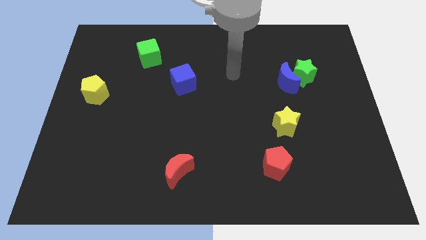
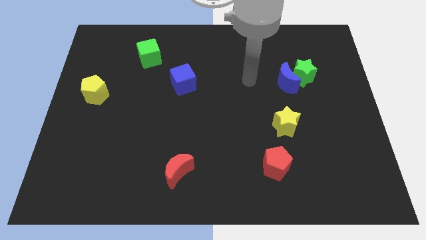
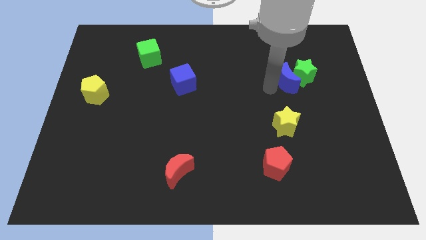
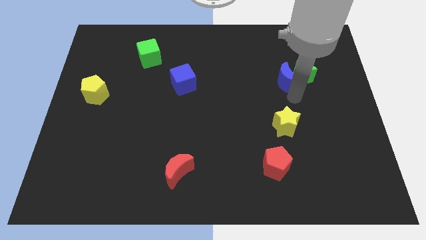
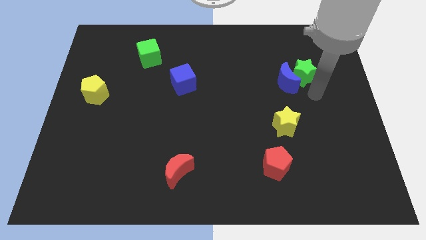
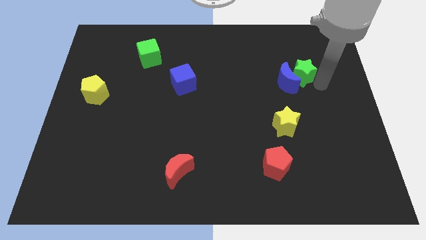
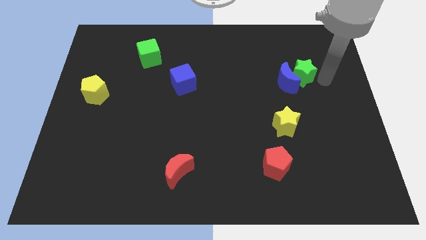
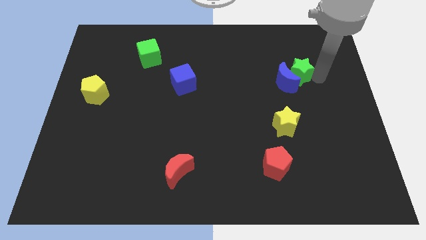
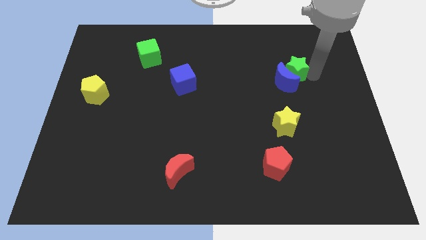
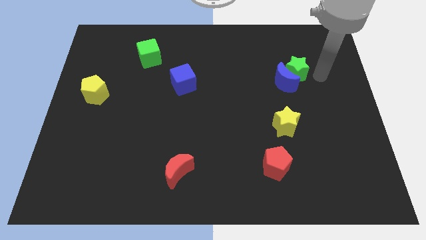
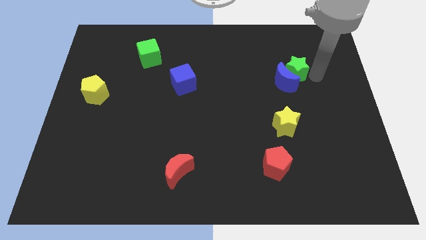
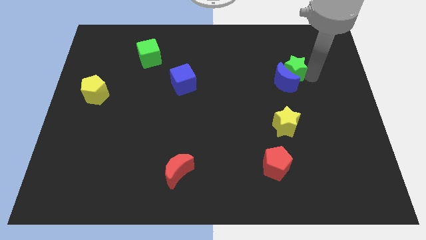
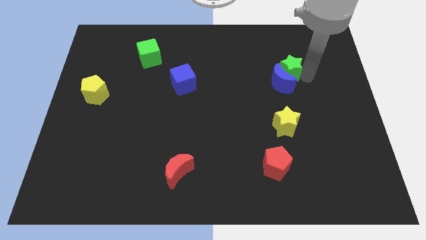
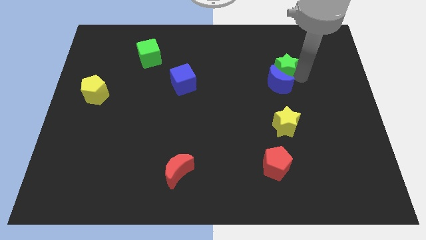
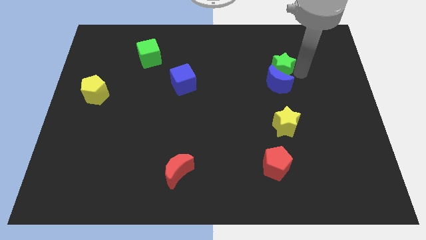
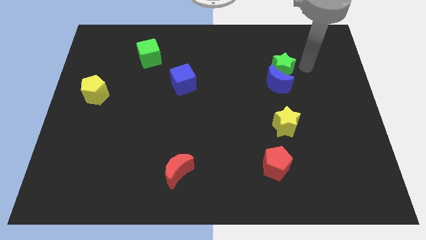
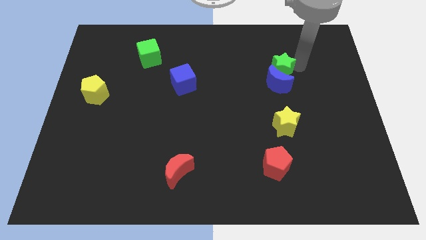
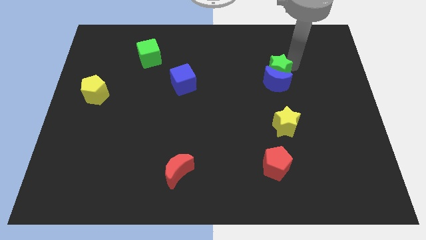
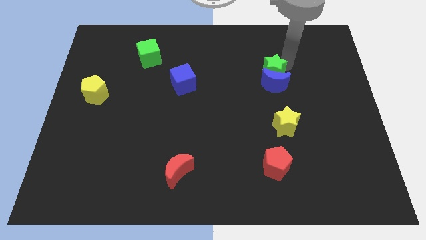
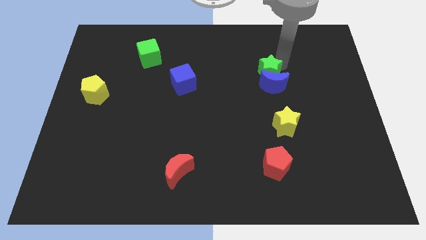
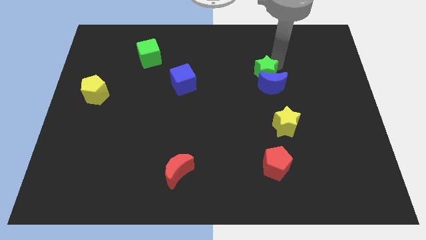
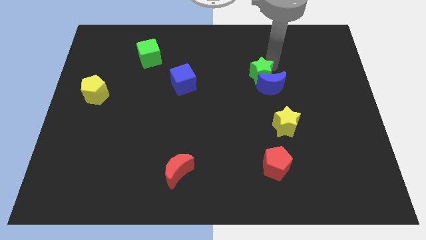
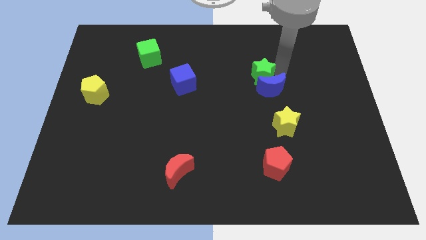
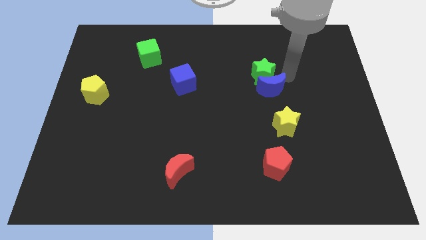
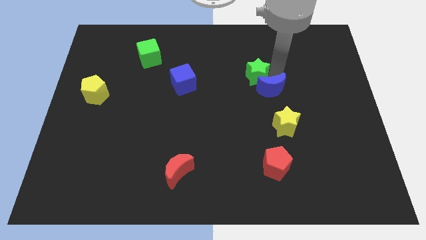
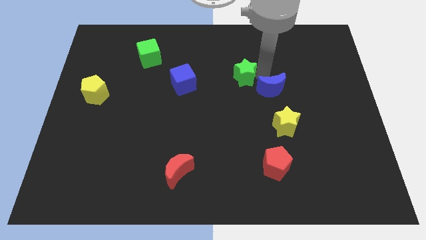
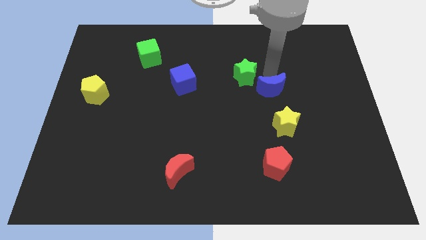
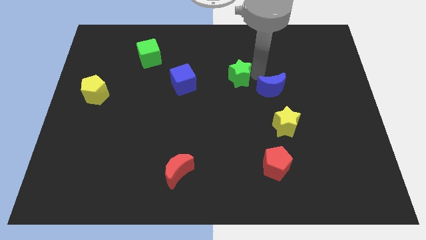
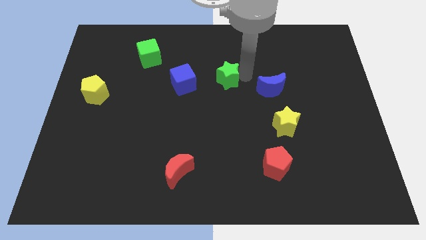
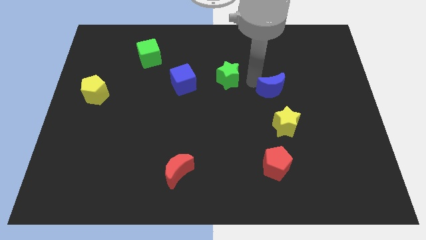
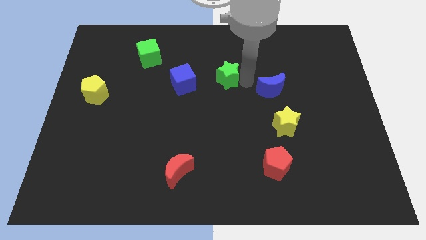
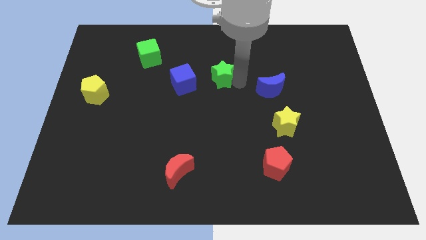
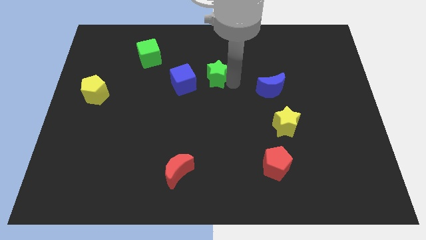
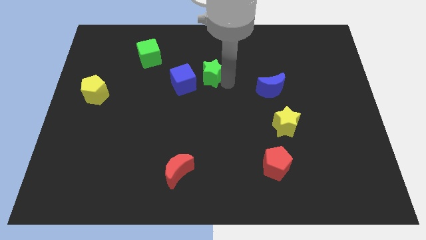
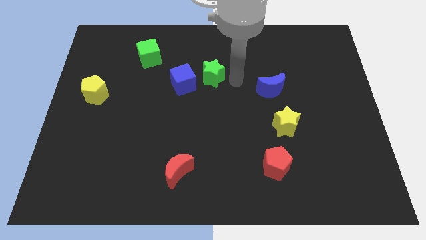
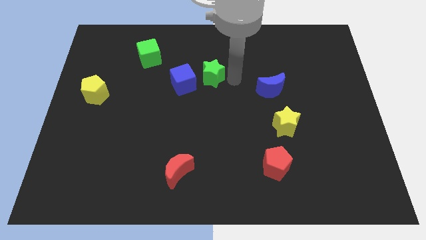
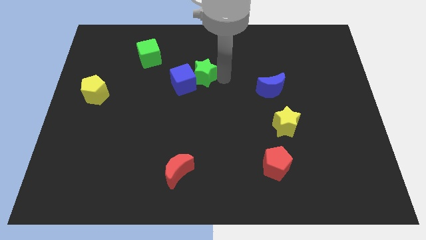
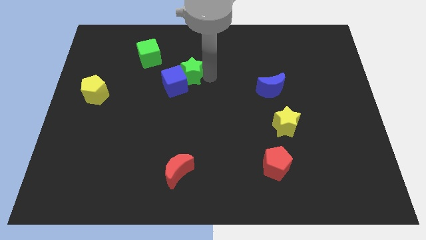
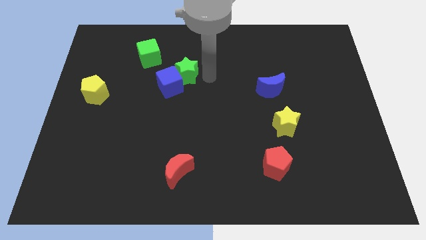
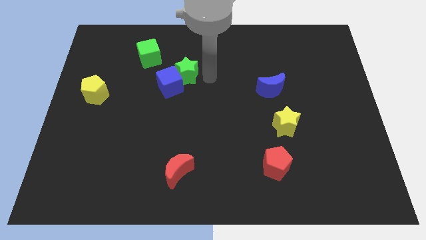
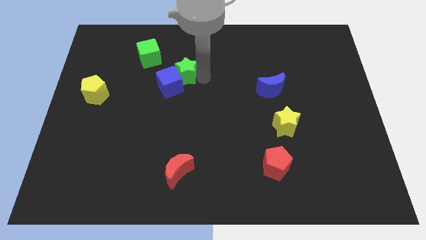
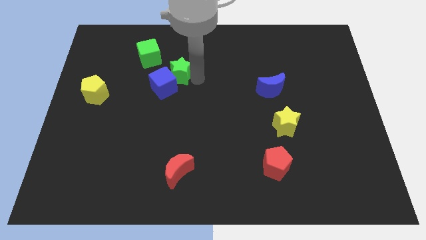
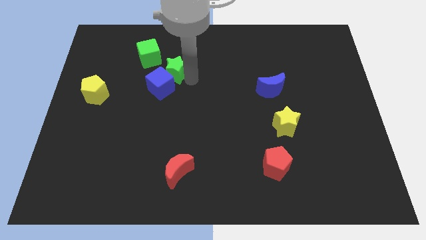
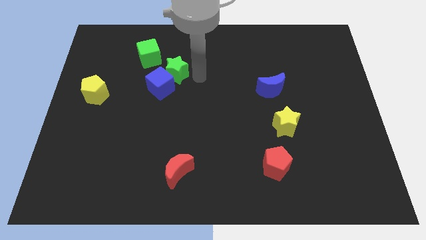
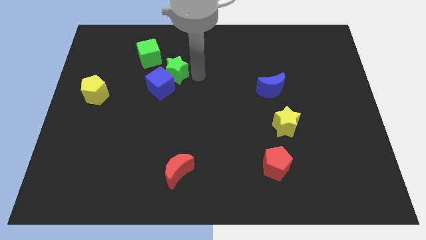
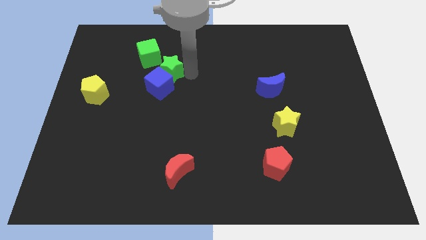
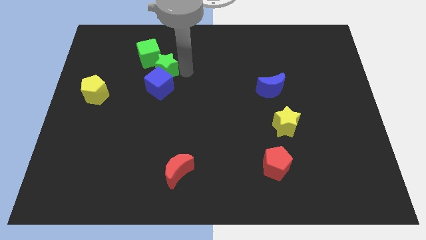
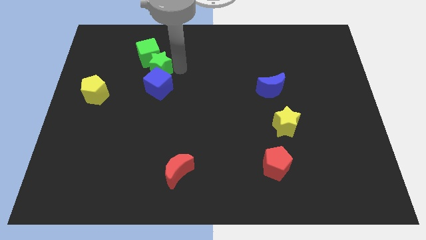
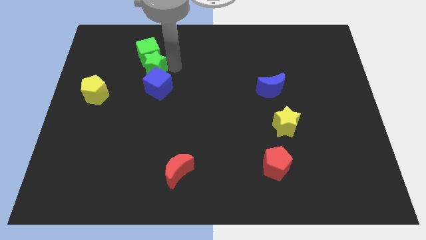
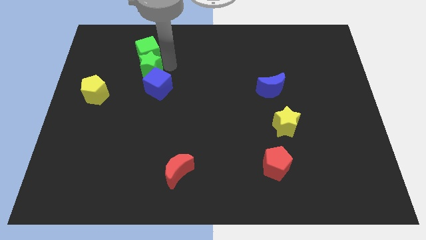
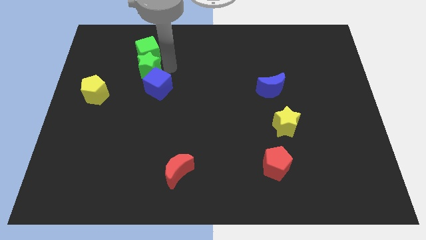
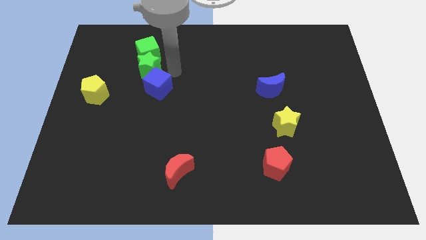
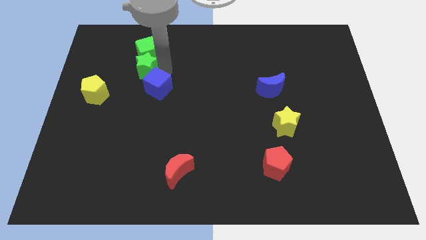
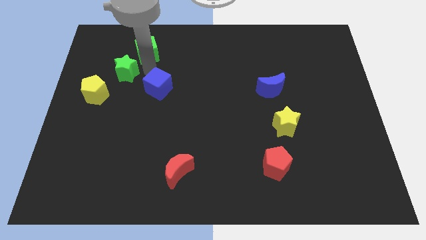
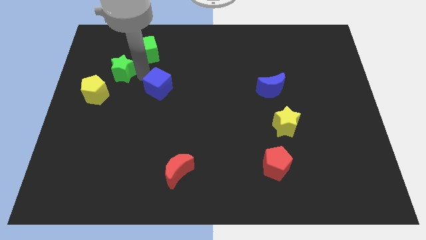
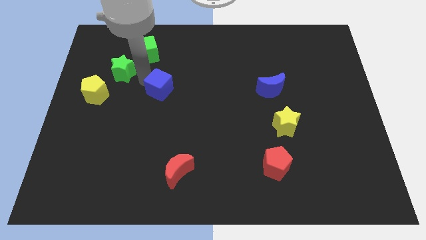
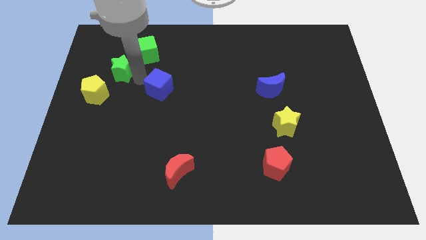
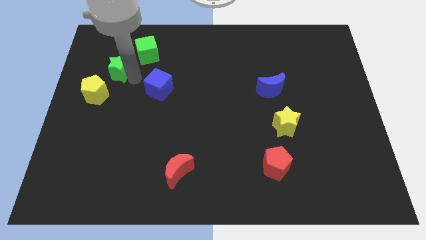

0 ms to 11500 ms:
push the green star above the yellow pentagon

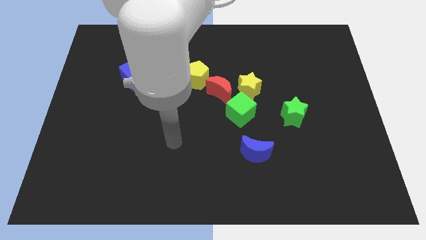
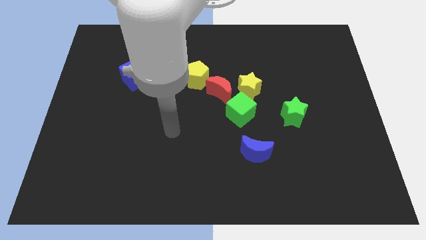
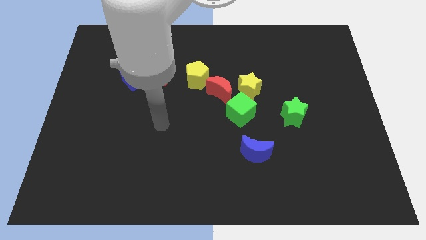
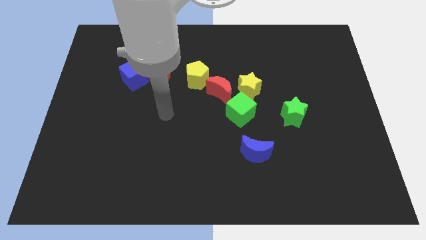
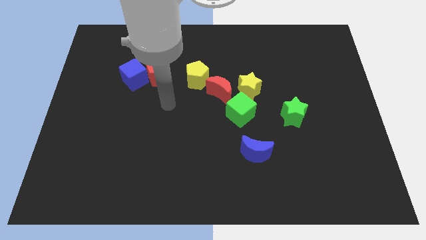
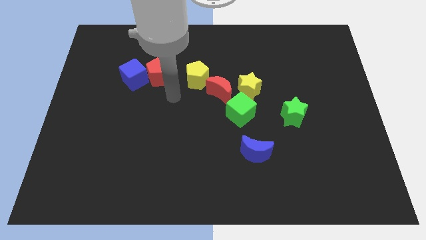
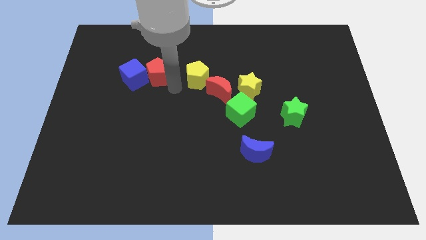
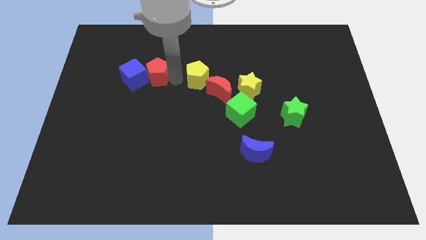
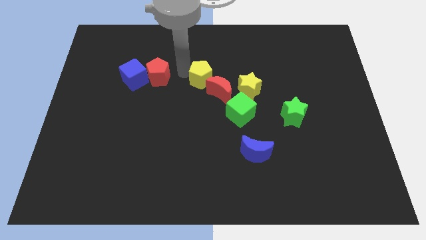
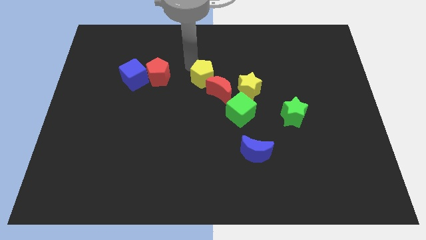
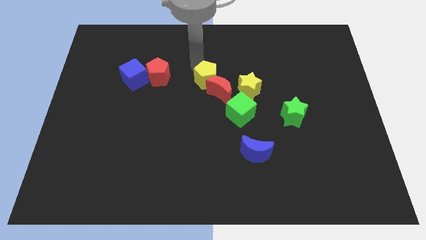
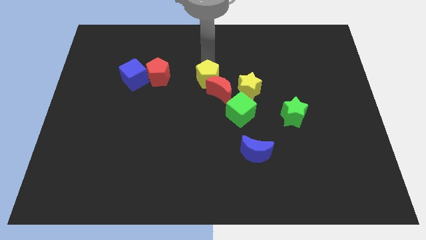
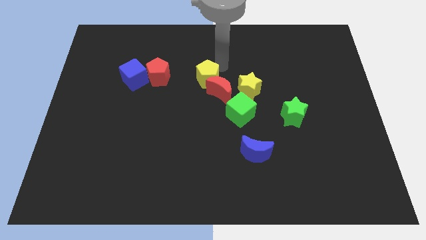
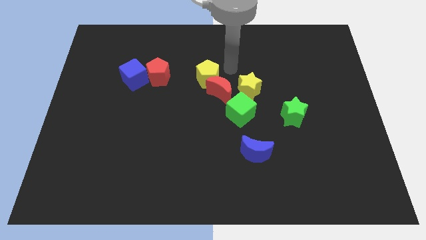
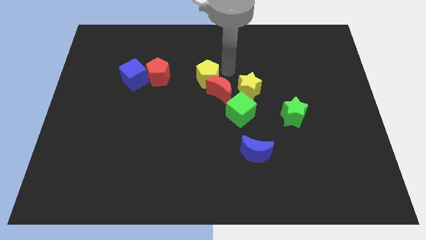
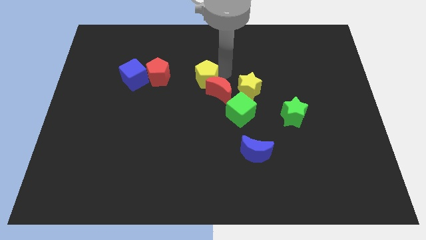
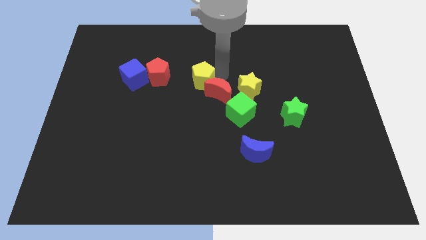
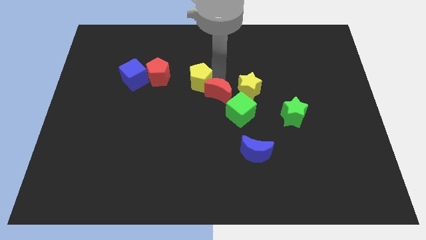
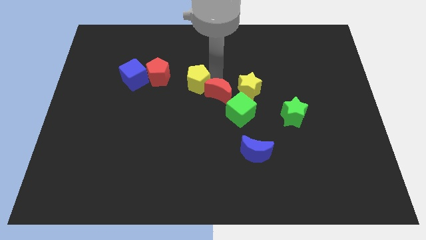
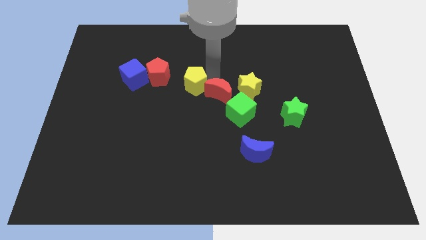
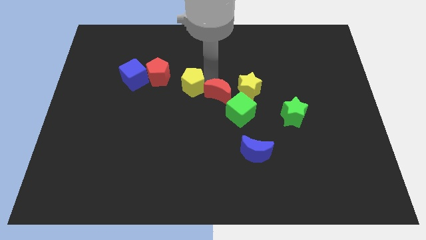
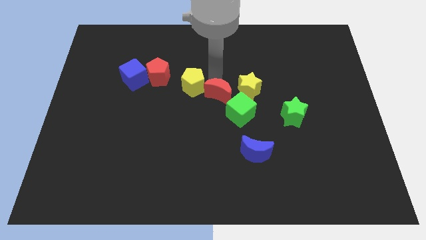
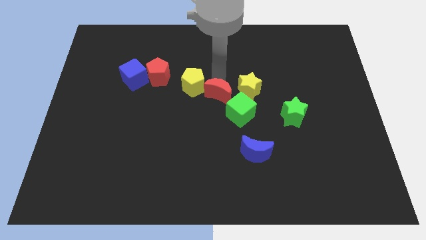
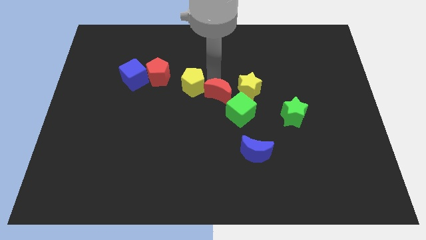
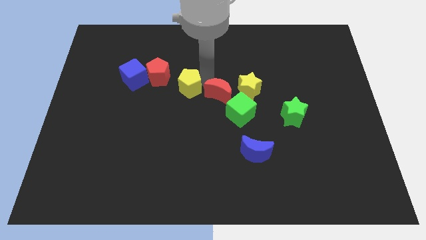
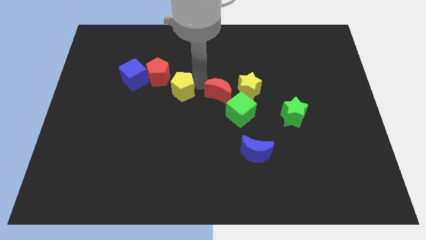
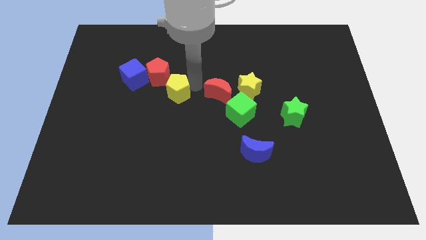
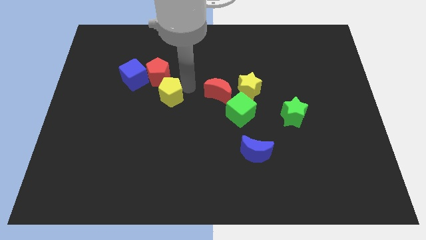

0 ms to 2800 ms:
push the yellow pentagon below the red pentagon
